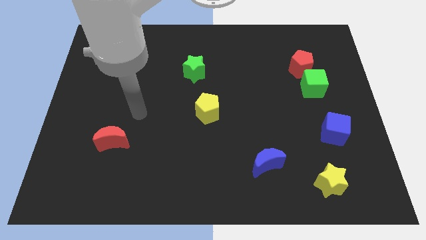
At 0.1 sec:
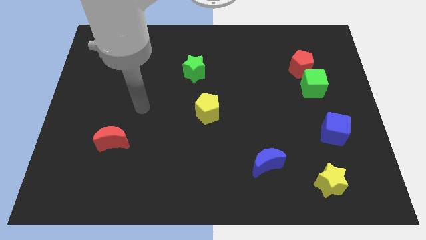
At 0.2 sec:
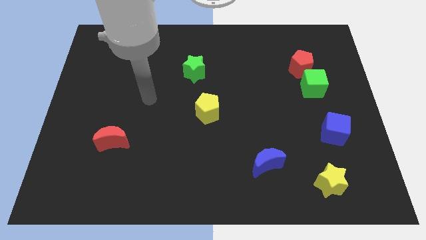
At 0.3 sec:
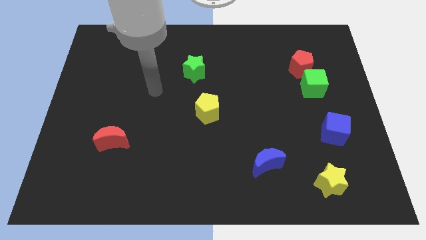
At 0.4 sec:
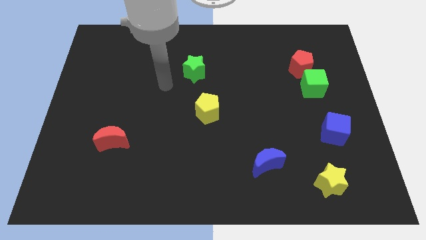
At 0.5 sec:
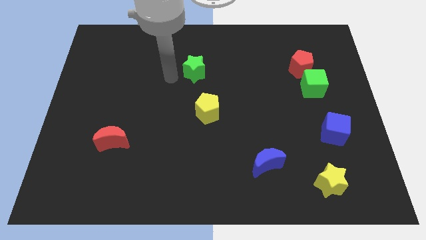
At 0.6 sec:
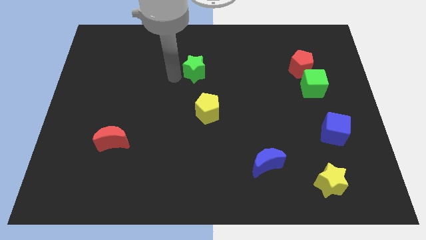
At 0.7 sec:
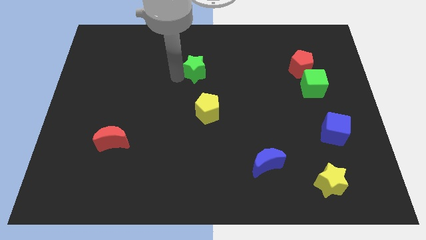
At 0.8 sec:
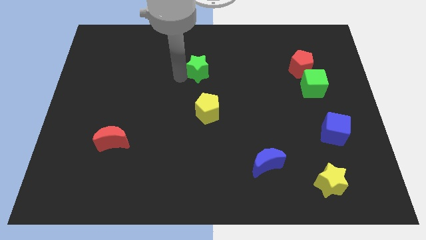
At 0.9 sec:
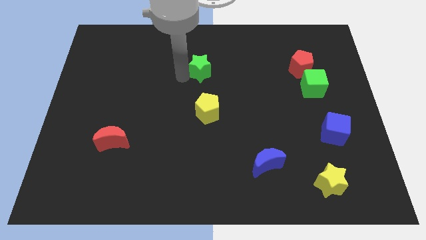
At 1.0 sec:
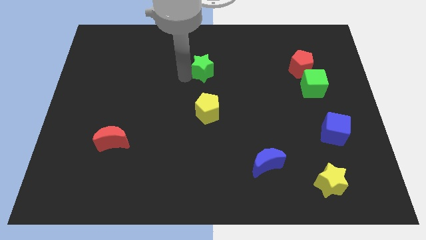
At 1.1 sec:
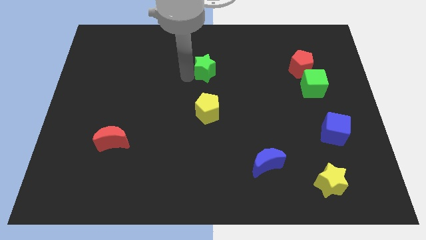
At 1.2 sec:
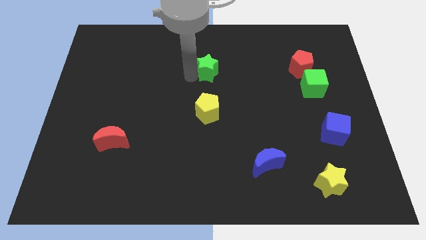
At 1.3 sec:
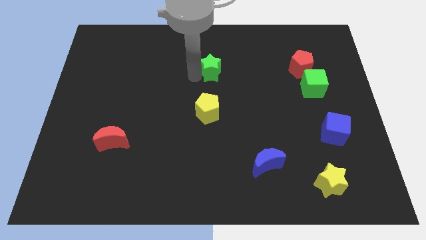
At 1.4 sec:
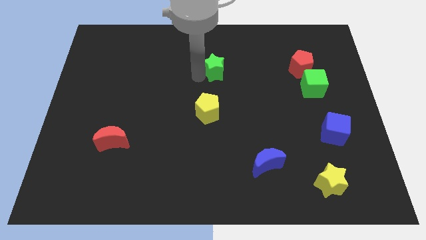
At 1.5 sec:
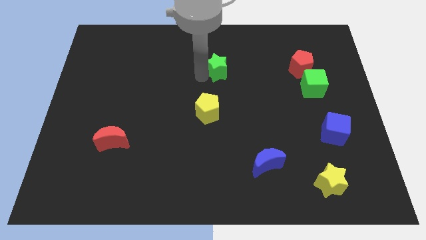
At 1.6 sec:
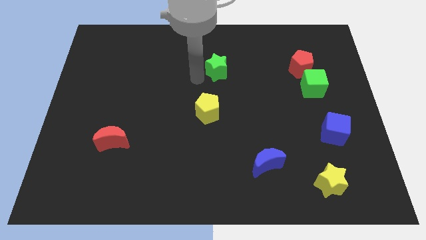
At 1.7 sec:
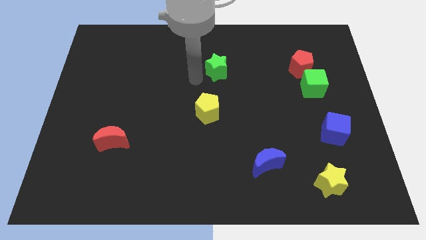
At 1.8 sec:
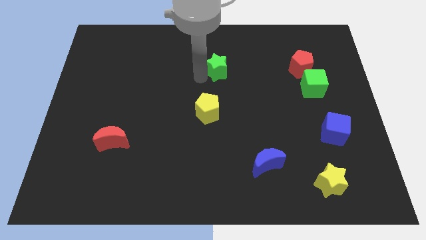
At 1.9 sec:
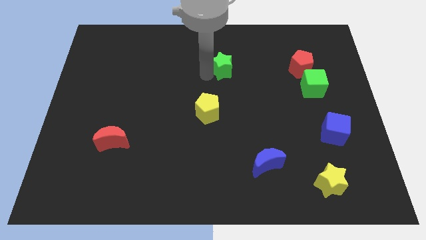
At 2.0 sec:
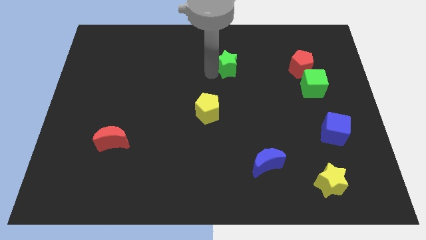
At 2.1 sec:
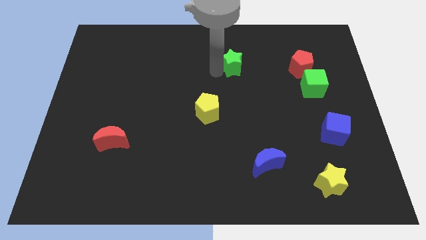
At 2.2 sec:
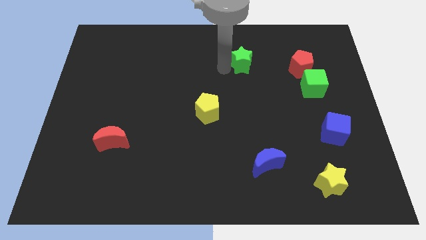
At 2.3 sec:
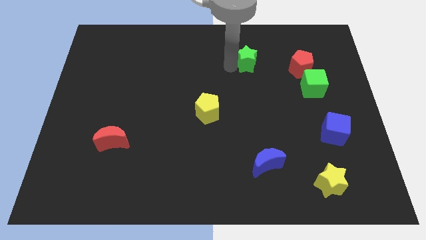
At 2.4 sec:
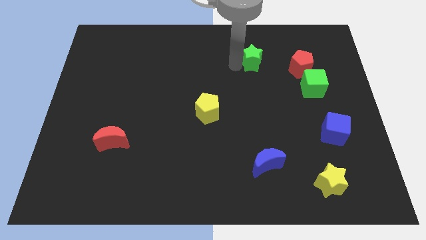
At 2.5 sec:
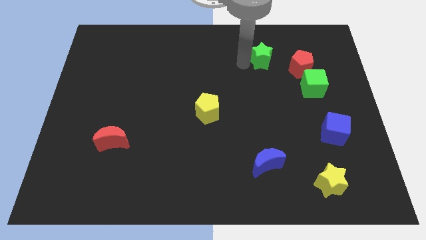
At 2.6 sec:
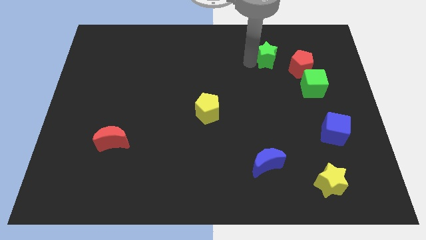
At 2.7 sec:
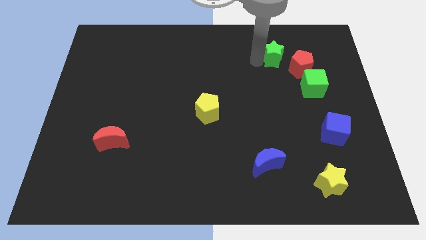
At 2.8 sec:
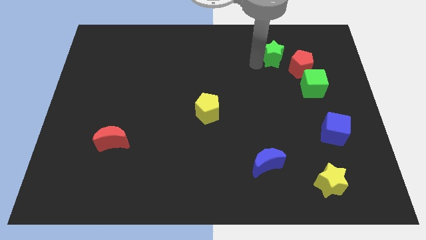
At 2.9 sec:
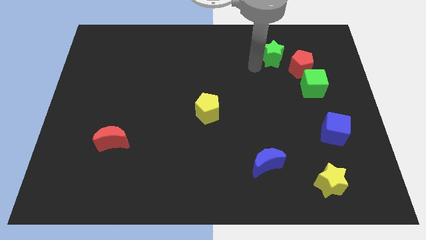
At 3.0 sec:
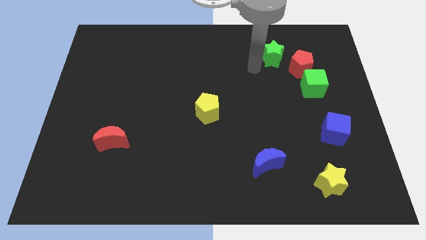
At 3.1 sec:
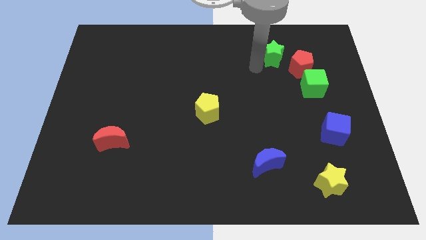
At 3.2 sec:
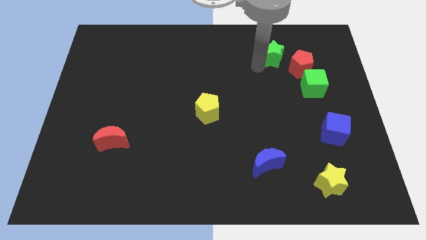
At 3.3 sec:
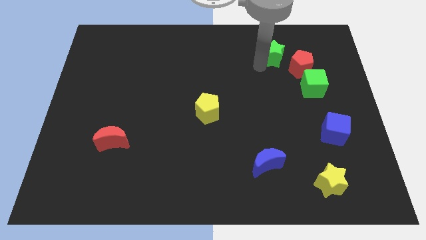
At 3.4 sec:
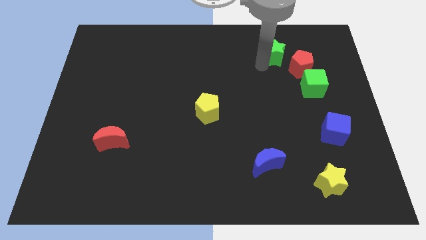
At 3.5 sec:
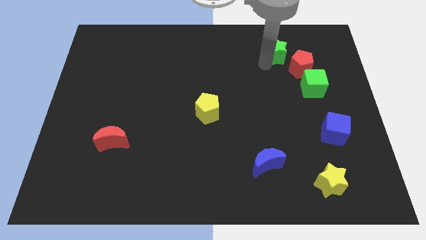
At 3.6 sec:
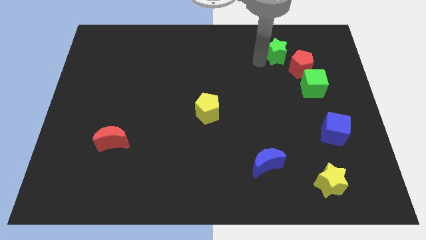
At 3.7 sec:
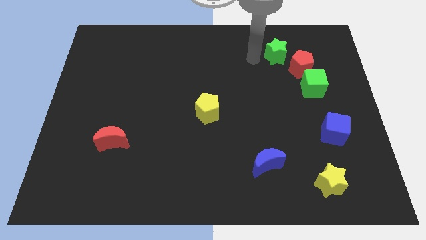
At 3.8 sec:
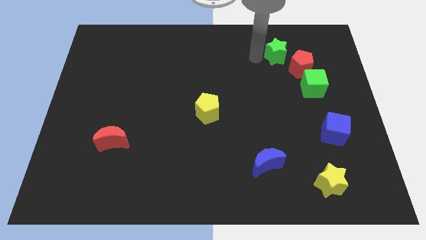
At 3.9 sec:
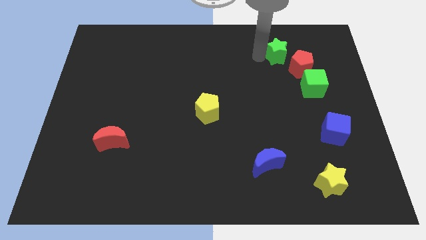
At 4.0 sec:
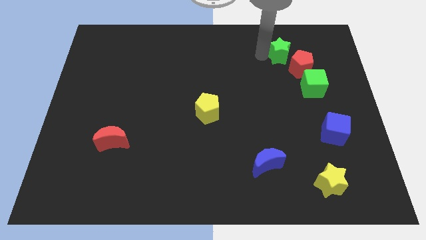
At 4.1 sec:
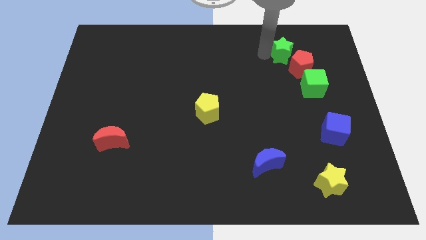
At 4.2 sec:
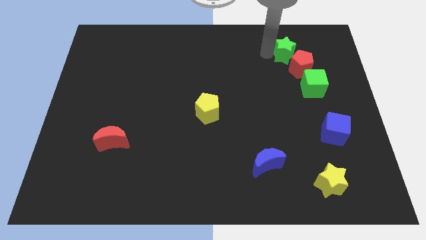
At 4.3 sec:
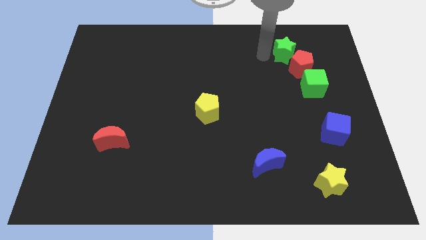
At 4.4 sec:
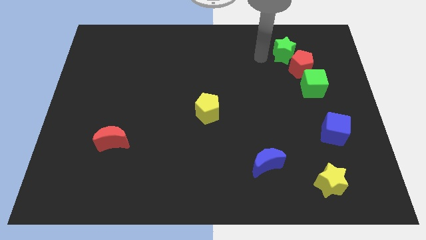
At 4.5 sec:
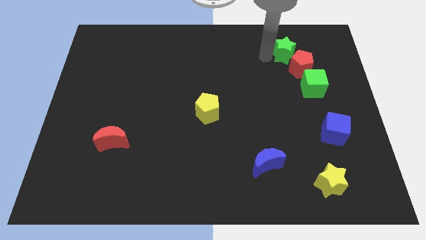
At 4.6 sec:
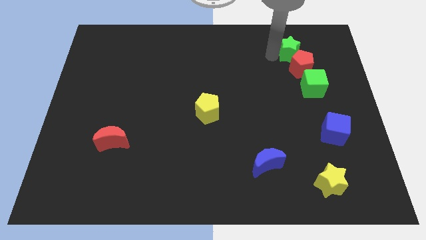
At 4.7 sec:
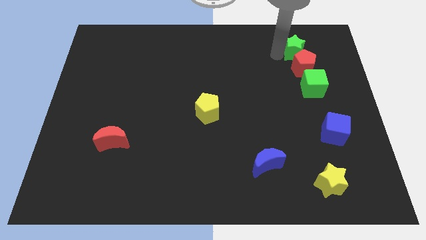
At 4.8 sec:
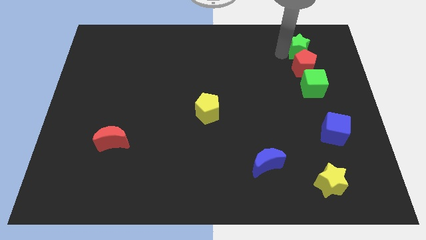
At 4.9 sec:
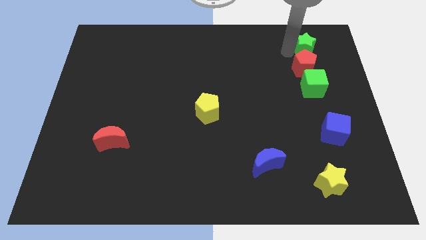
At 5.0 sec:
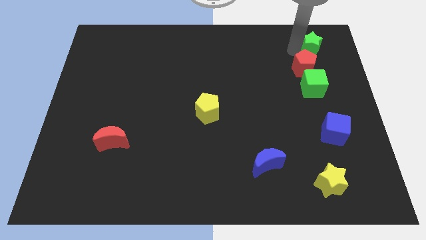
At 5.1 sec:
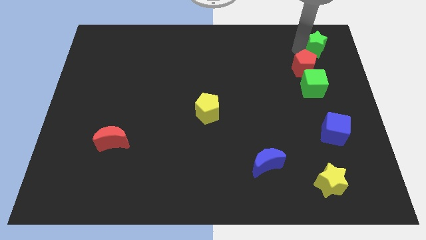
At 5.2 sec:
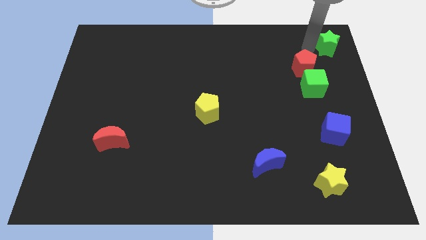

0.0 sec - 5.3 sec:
slide the green star to the top right

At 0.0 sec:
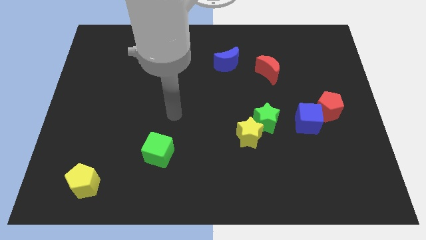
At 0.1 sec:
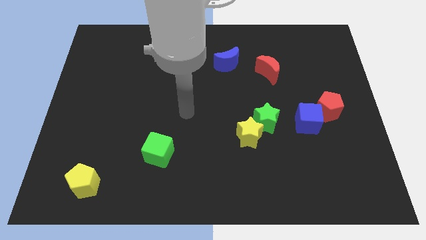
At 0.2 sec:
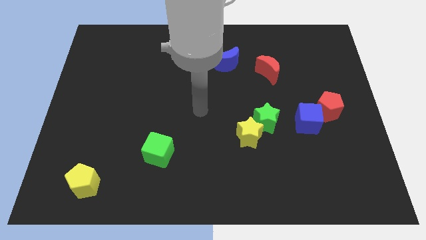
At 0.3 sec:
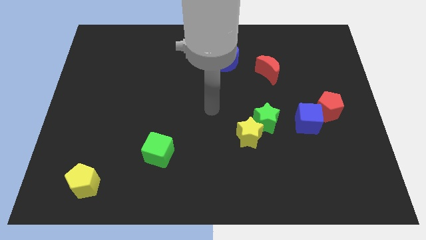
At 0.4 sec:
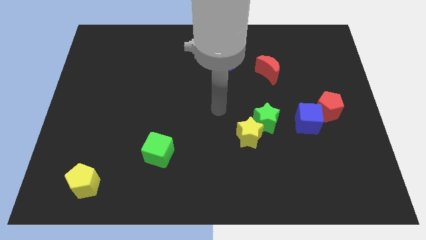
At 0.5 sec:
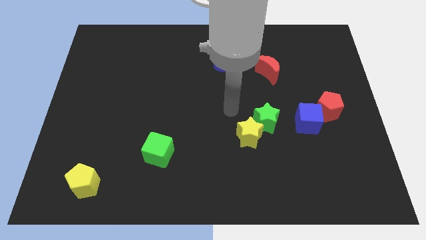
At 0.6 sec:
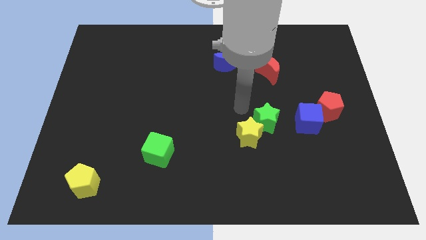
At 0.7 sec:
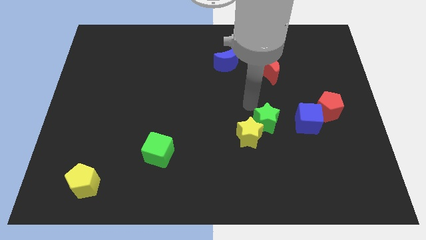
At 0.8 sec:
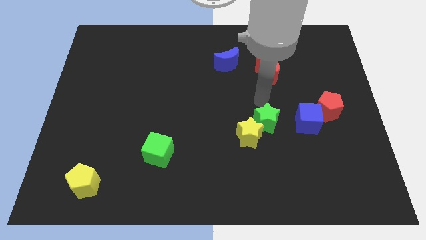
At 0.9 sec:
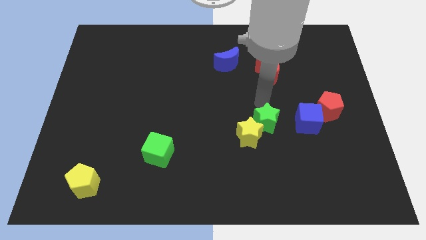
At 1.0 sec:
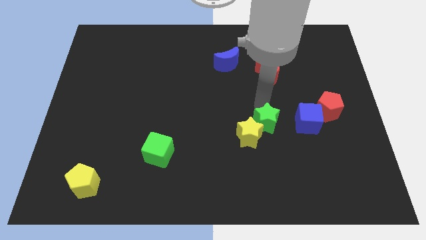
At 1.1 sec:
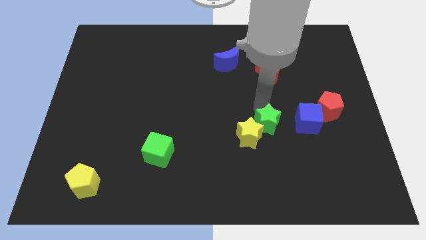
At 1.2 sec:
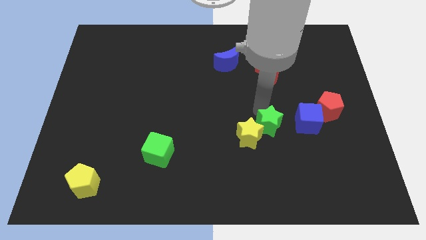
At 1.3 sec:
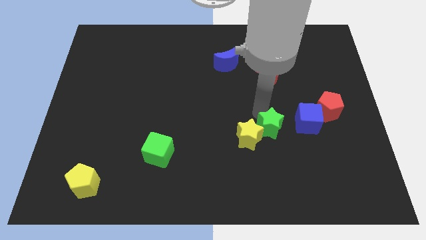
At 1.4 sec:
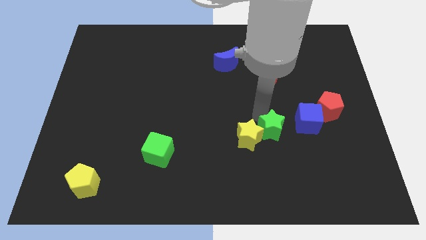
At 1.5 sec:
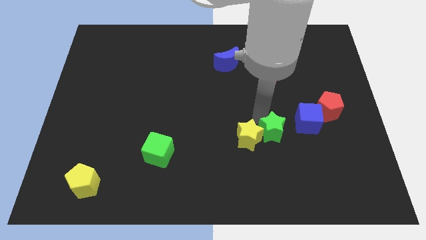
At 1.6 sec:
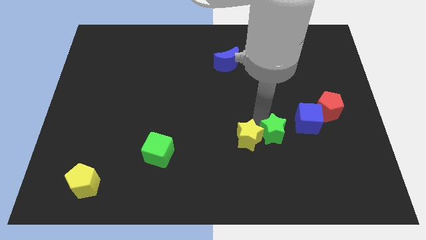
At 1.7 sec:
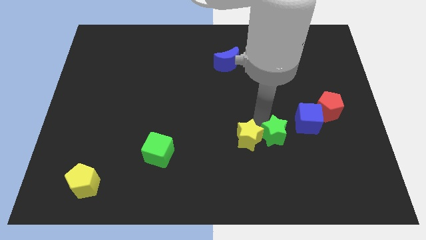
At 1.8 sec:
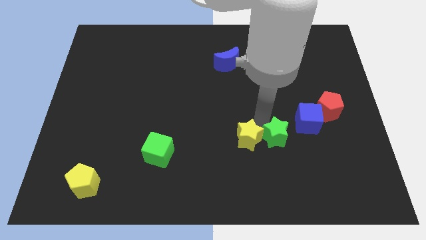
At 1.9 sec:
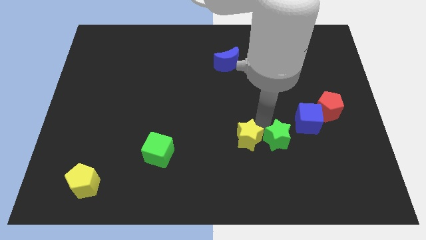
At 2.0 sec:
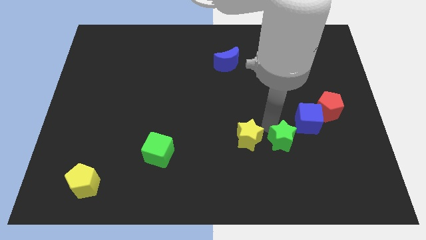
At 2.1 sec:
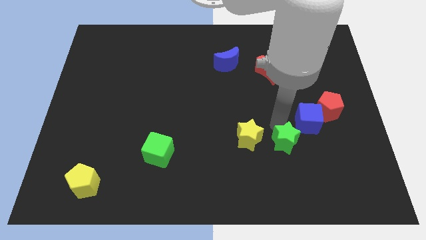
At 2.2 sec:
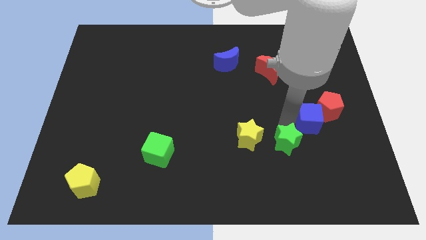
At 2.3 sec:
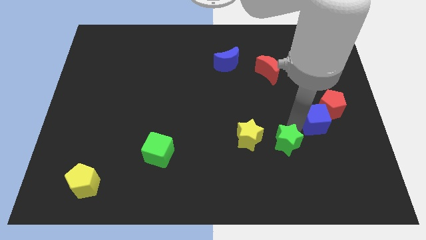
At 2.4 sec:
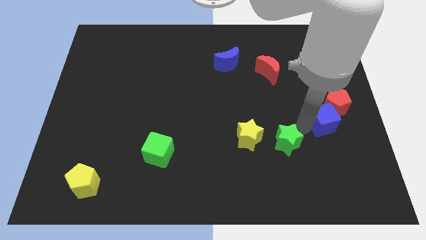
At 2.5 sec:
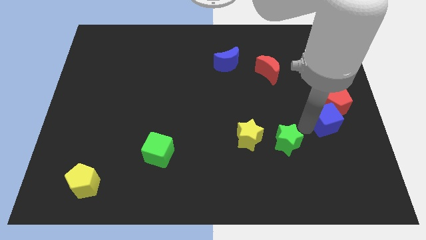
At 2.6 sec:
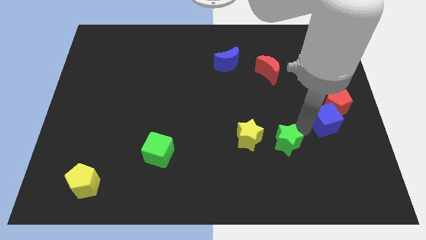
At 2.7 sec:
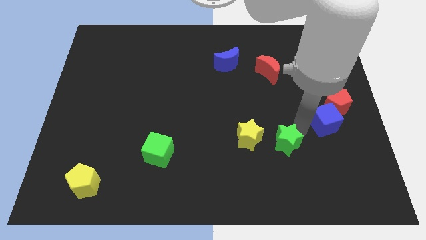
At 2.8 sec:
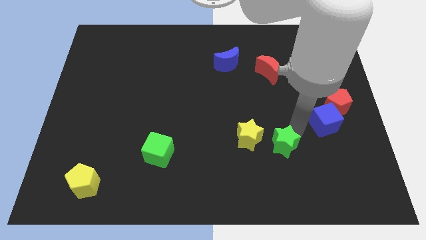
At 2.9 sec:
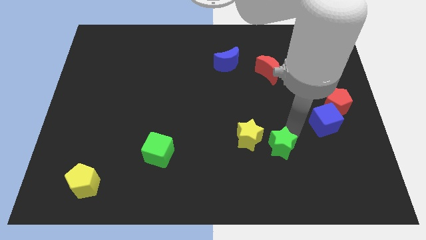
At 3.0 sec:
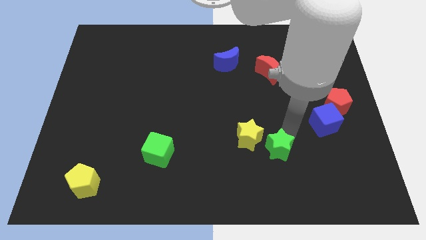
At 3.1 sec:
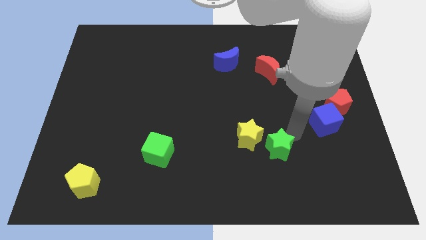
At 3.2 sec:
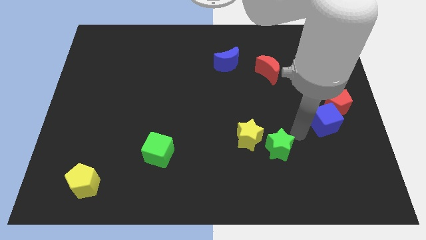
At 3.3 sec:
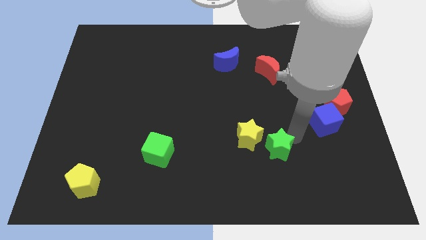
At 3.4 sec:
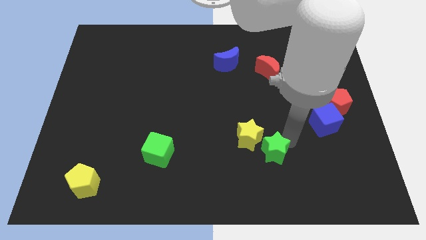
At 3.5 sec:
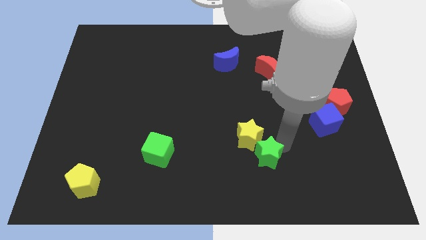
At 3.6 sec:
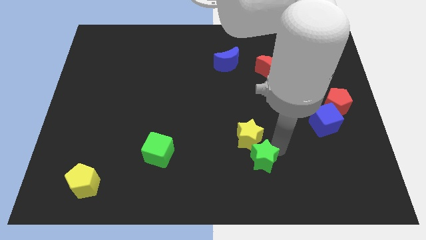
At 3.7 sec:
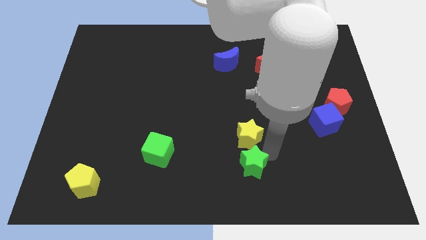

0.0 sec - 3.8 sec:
move the green star to the bottom
